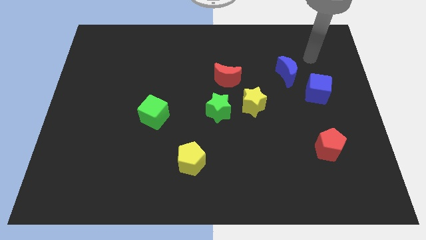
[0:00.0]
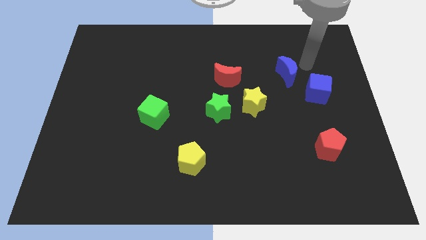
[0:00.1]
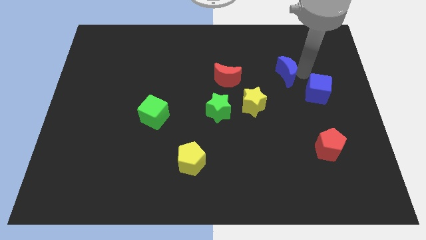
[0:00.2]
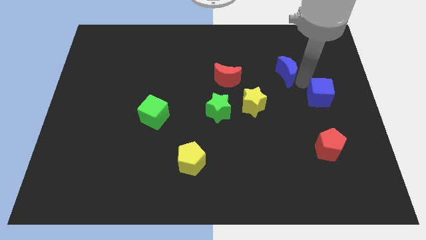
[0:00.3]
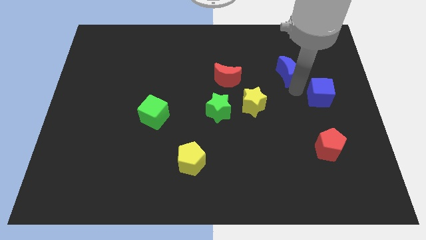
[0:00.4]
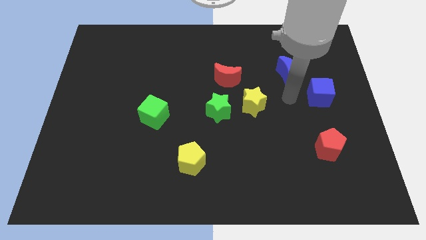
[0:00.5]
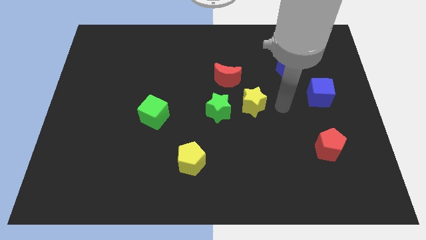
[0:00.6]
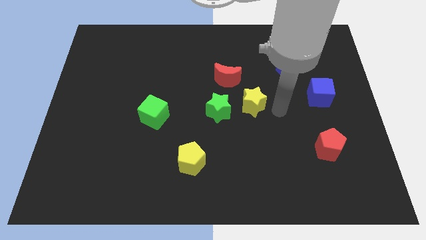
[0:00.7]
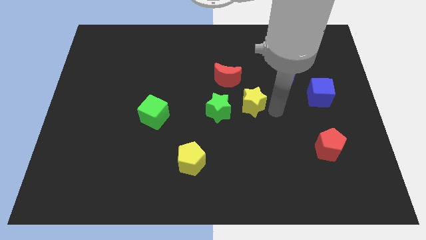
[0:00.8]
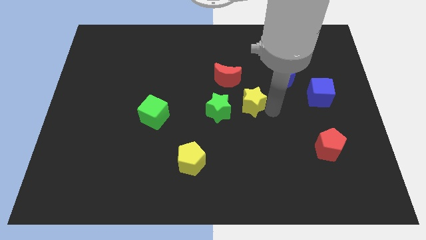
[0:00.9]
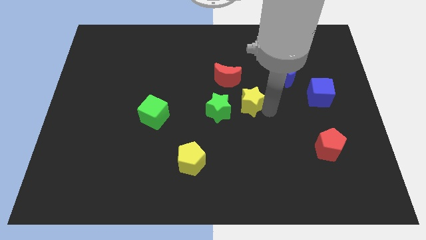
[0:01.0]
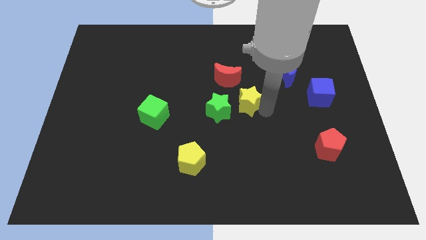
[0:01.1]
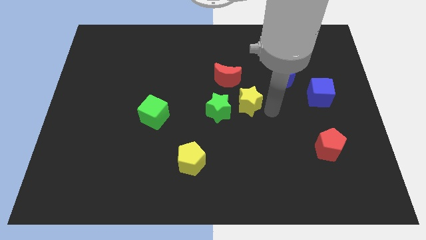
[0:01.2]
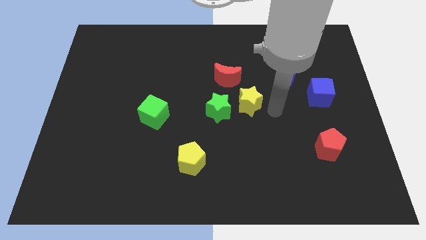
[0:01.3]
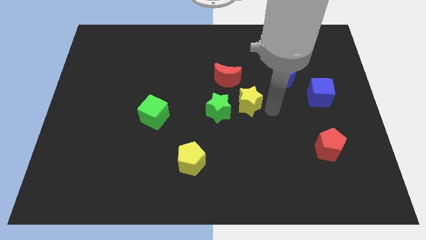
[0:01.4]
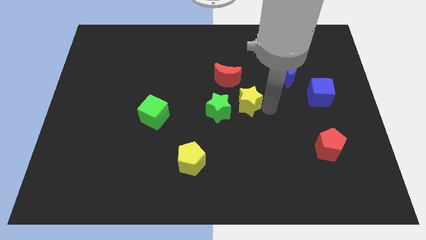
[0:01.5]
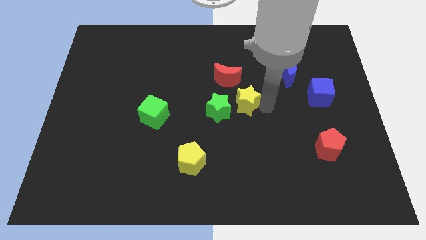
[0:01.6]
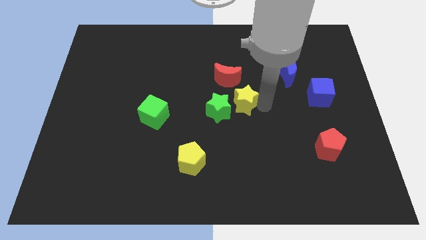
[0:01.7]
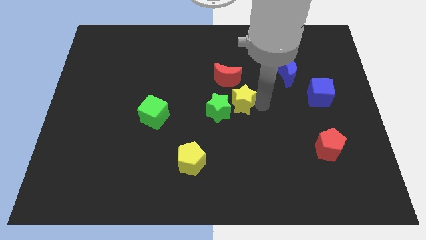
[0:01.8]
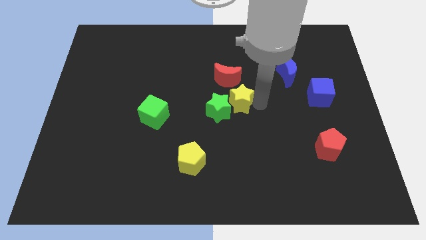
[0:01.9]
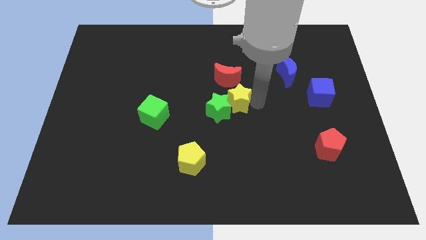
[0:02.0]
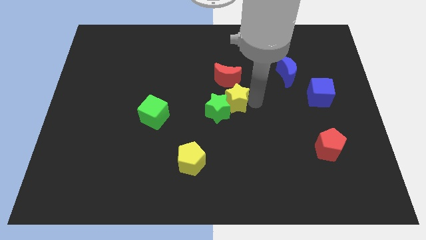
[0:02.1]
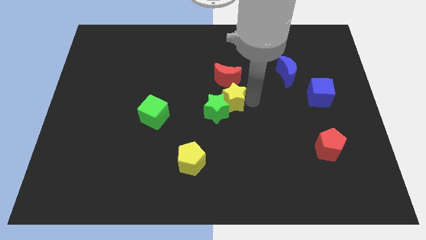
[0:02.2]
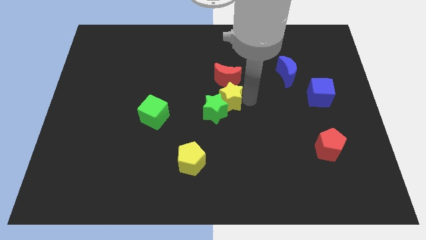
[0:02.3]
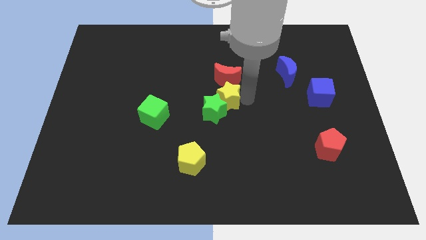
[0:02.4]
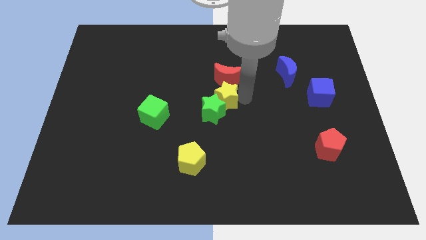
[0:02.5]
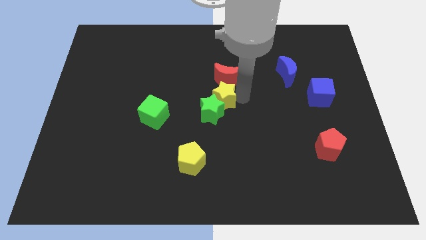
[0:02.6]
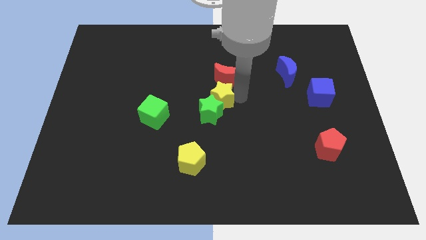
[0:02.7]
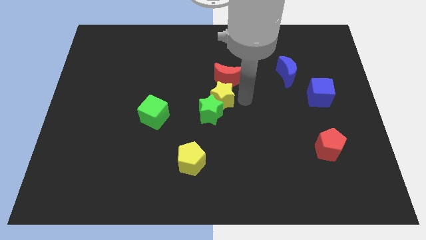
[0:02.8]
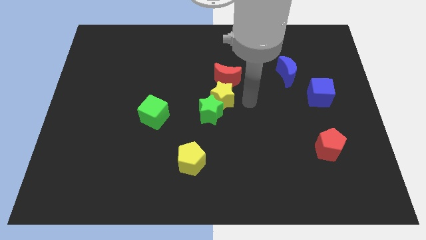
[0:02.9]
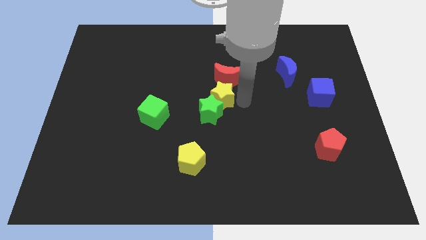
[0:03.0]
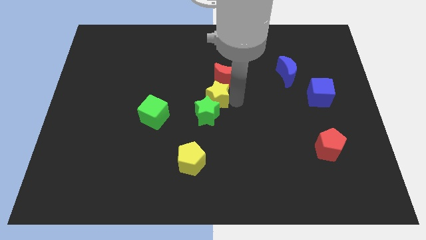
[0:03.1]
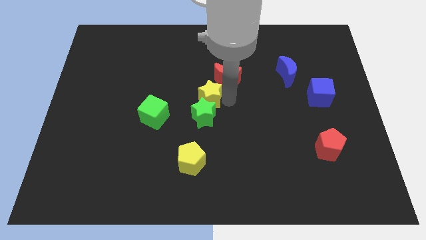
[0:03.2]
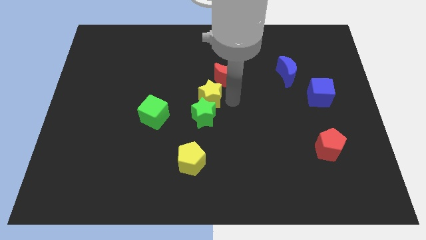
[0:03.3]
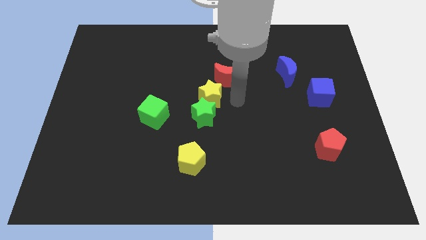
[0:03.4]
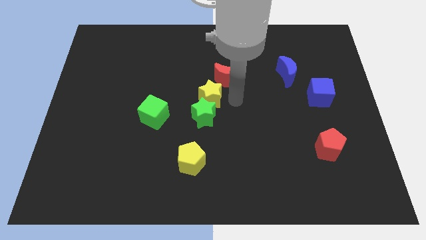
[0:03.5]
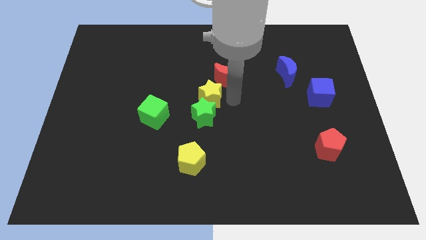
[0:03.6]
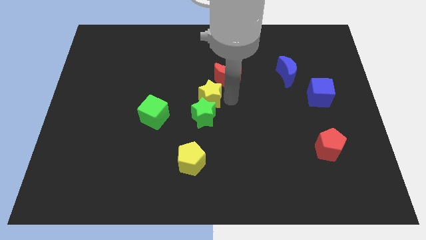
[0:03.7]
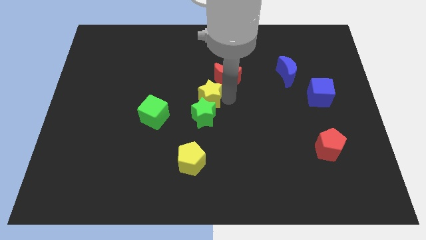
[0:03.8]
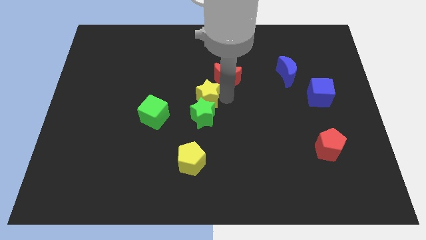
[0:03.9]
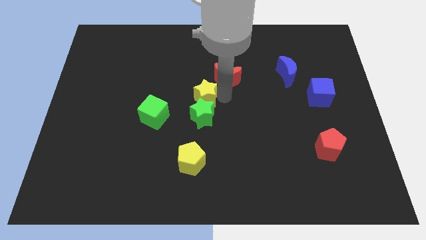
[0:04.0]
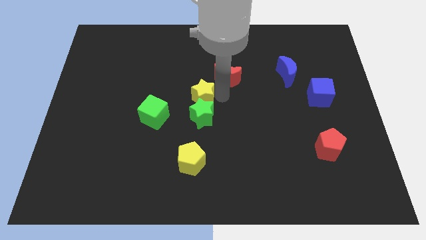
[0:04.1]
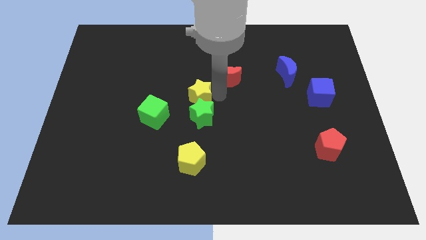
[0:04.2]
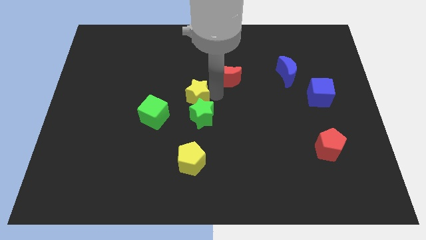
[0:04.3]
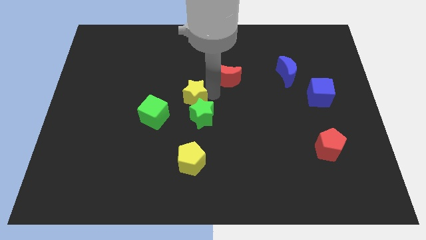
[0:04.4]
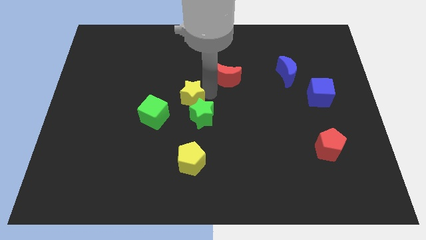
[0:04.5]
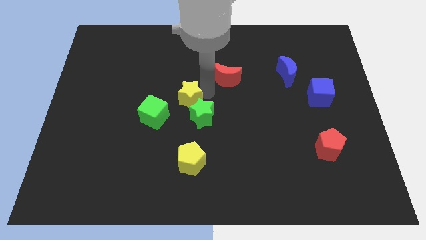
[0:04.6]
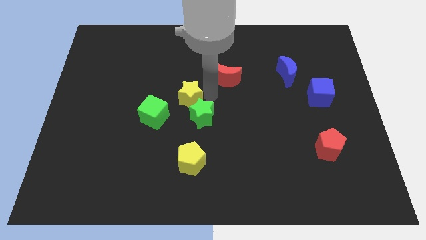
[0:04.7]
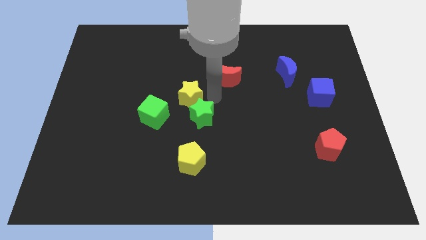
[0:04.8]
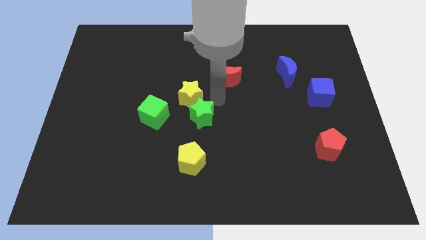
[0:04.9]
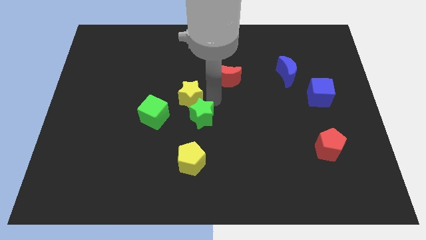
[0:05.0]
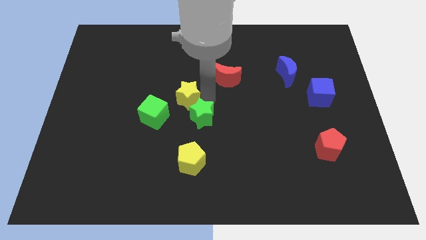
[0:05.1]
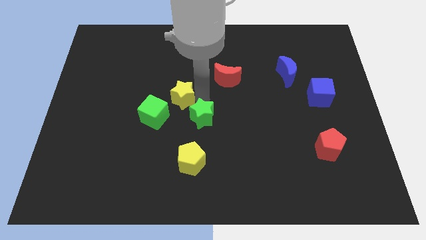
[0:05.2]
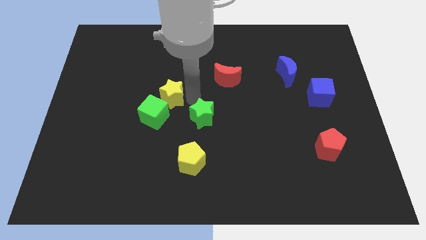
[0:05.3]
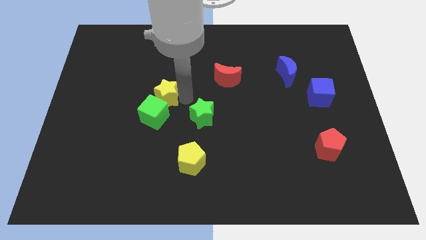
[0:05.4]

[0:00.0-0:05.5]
push the yellow star to the left

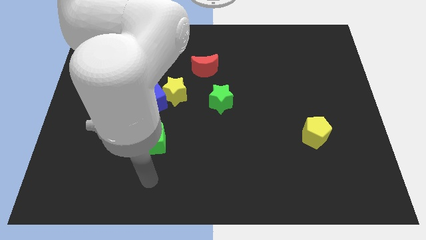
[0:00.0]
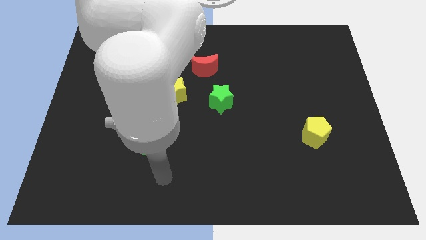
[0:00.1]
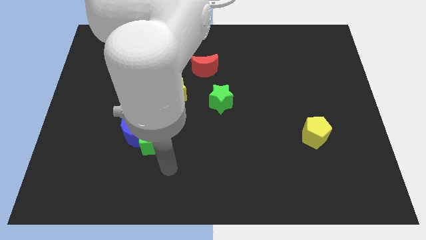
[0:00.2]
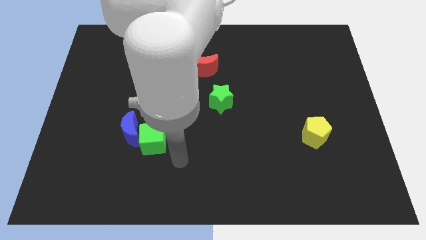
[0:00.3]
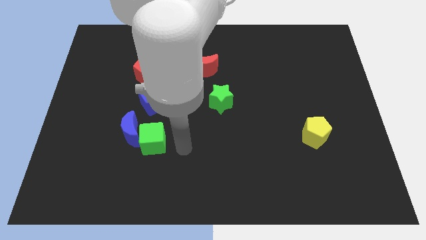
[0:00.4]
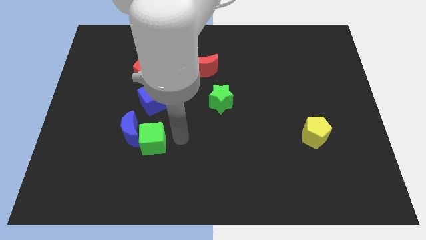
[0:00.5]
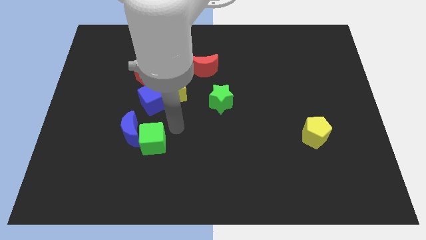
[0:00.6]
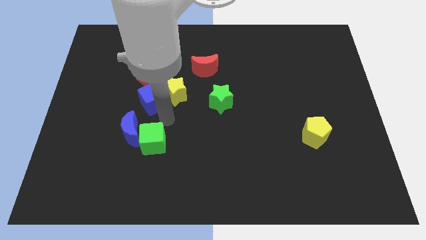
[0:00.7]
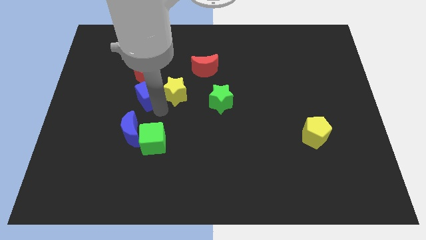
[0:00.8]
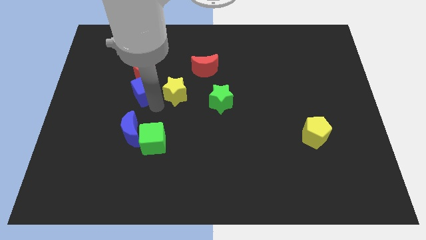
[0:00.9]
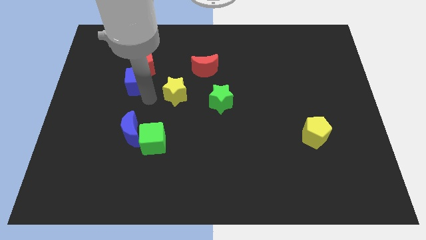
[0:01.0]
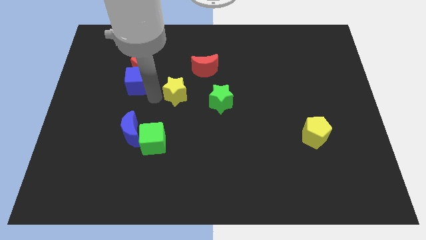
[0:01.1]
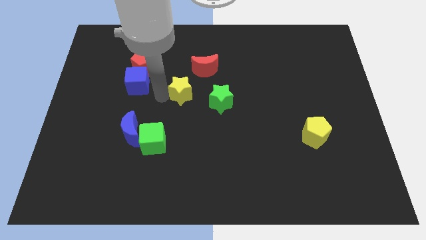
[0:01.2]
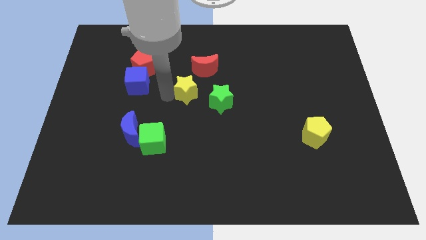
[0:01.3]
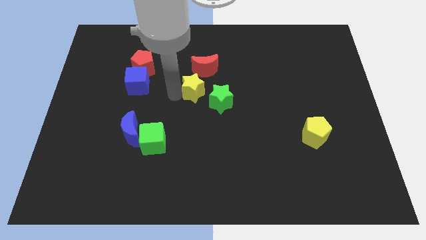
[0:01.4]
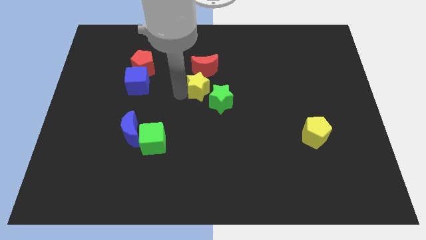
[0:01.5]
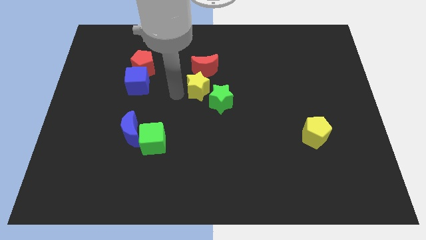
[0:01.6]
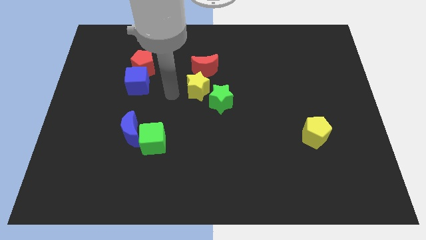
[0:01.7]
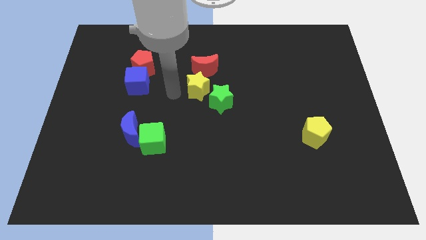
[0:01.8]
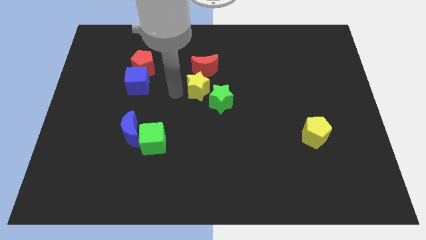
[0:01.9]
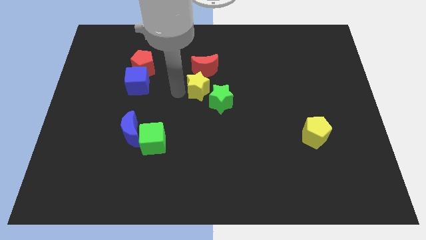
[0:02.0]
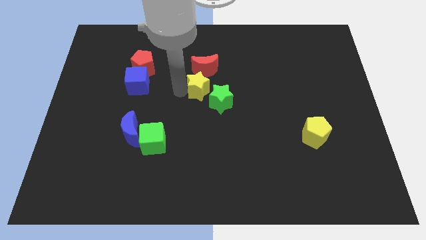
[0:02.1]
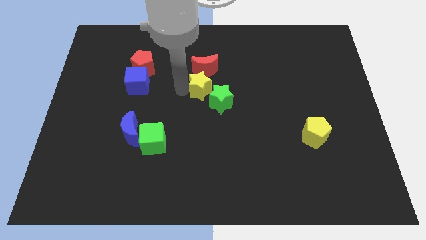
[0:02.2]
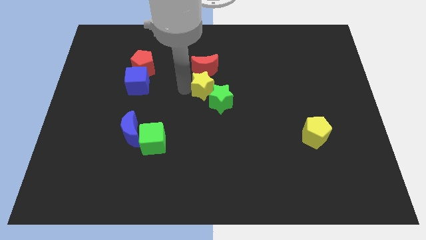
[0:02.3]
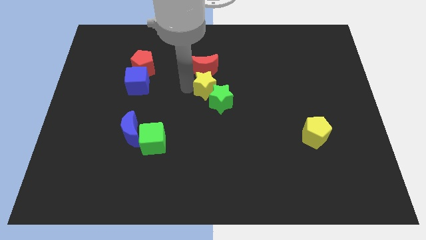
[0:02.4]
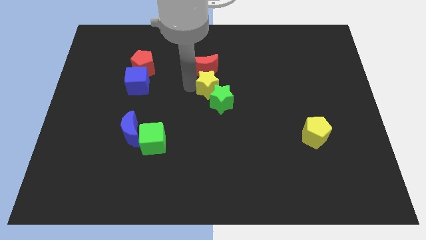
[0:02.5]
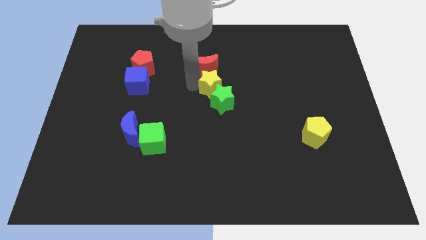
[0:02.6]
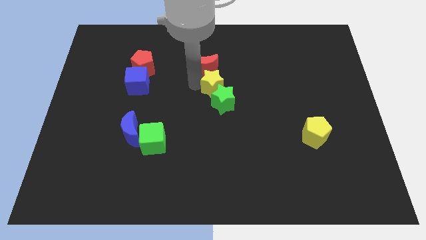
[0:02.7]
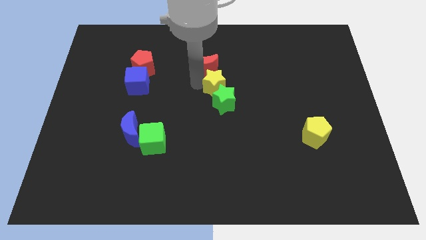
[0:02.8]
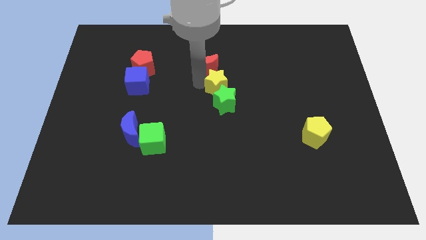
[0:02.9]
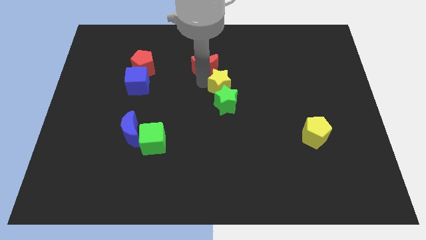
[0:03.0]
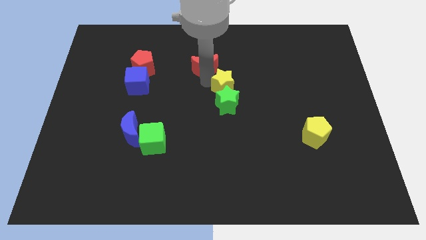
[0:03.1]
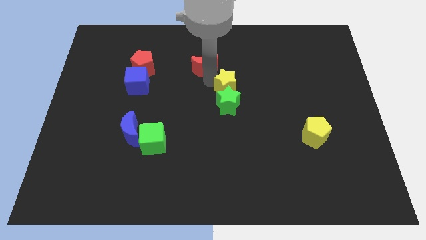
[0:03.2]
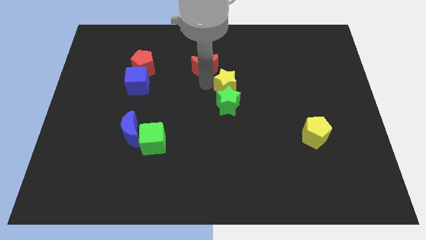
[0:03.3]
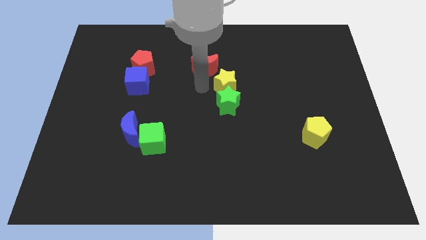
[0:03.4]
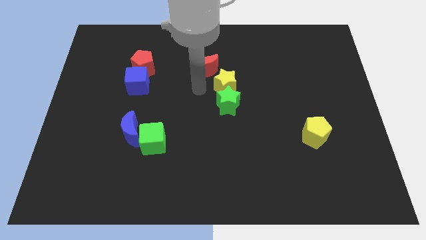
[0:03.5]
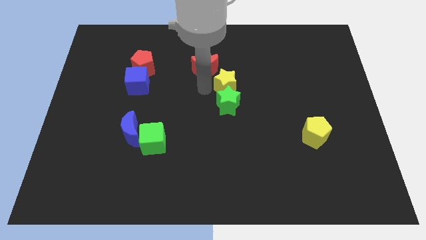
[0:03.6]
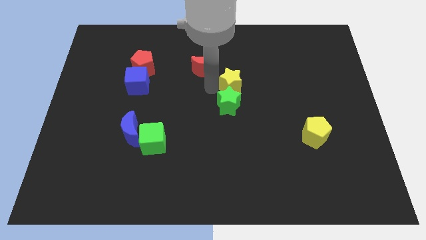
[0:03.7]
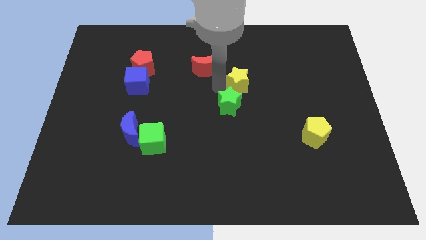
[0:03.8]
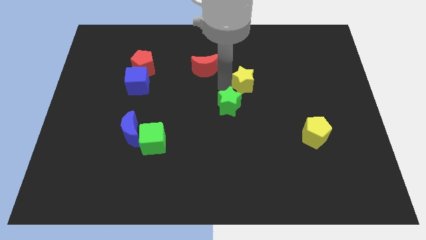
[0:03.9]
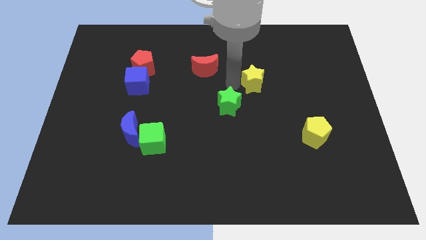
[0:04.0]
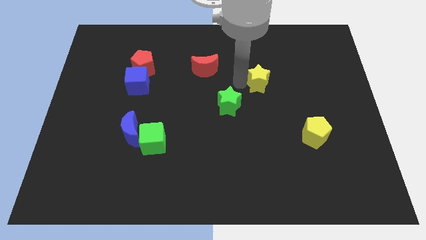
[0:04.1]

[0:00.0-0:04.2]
push the yellow star right
